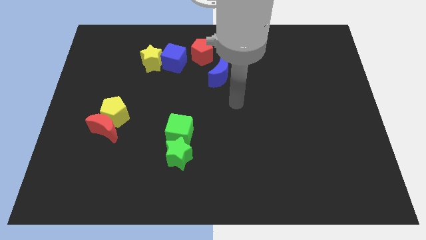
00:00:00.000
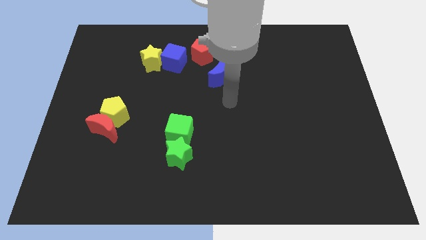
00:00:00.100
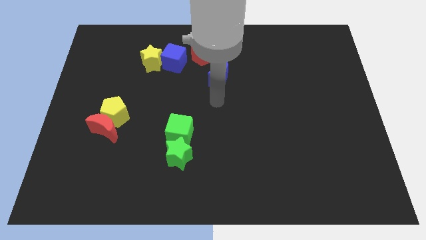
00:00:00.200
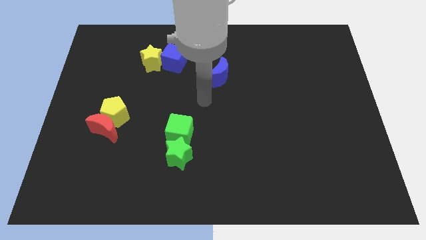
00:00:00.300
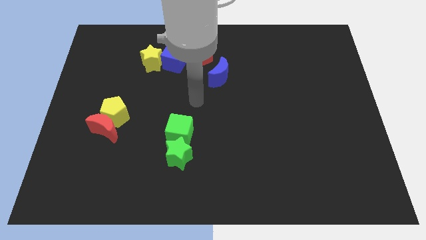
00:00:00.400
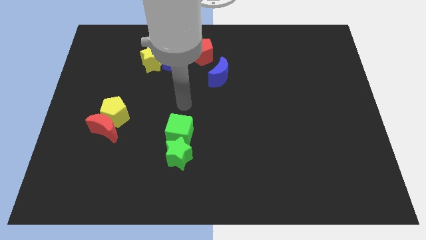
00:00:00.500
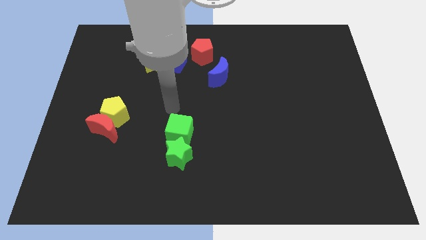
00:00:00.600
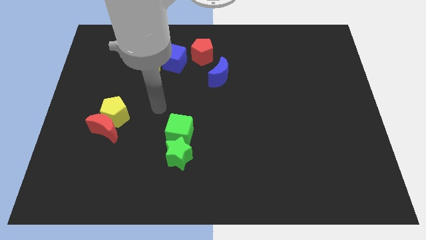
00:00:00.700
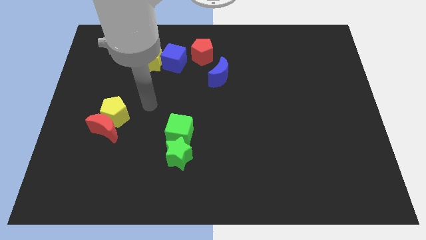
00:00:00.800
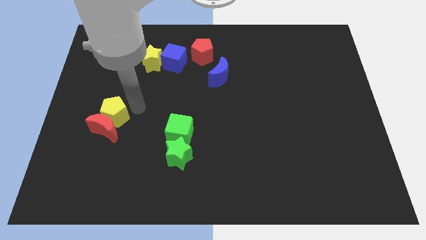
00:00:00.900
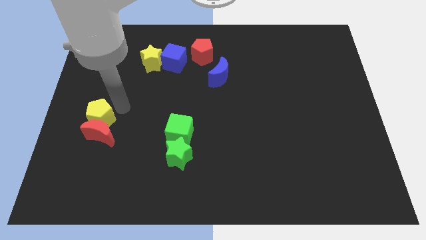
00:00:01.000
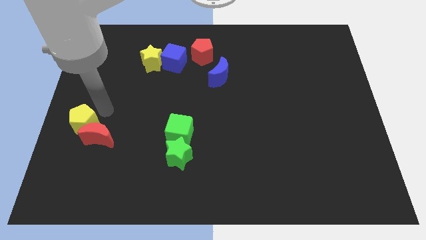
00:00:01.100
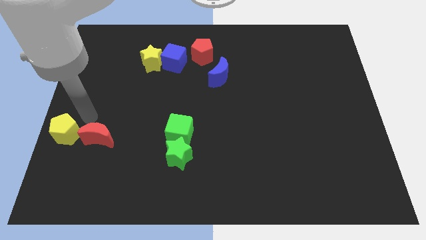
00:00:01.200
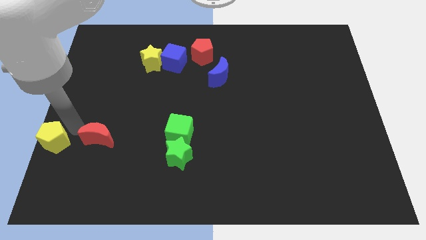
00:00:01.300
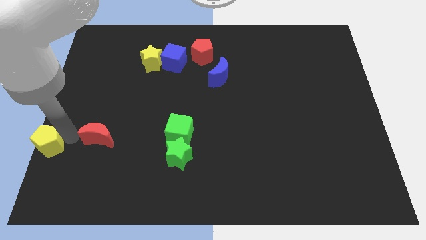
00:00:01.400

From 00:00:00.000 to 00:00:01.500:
separate the red moon from the yellow pentagon

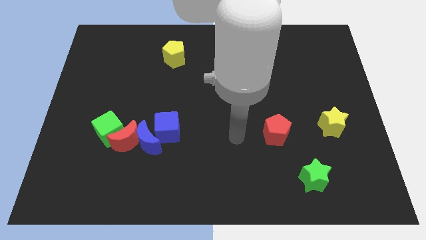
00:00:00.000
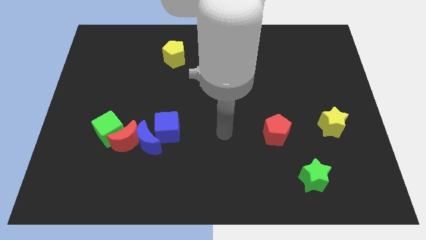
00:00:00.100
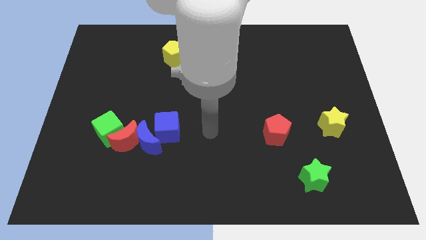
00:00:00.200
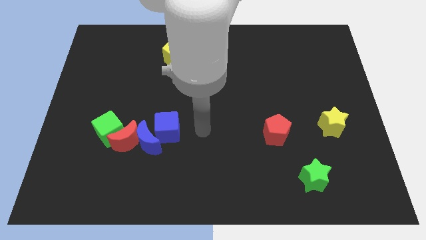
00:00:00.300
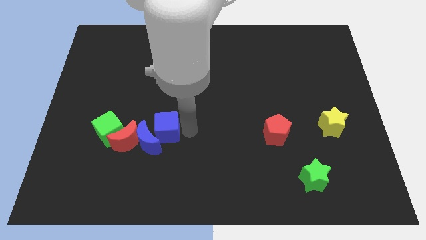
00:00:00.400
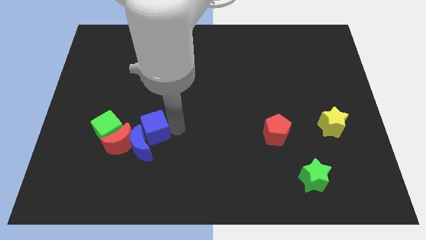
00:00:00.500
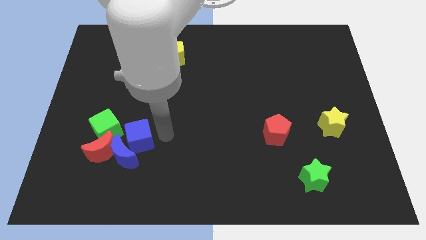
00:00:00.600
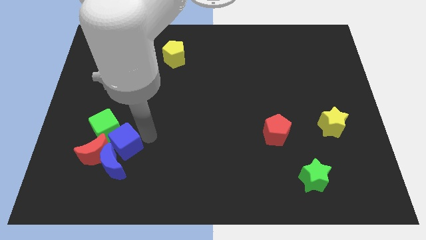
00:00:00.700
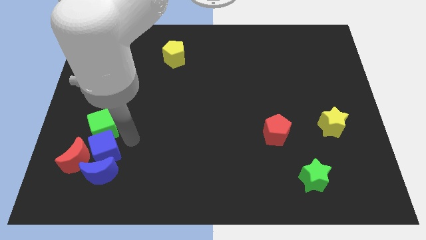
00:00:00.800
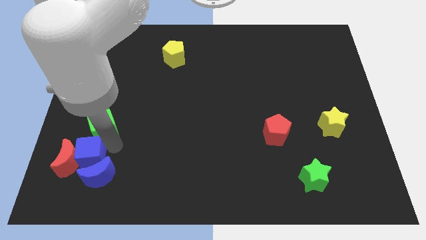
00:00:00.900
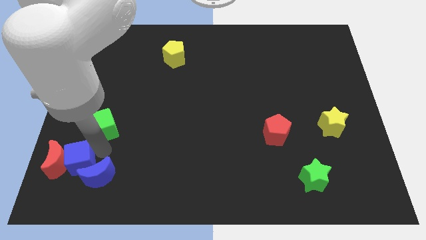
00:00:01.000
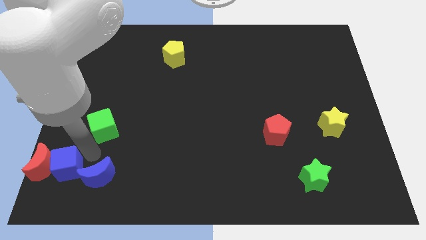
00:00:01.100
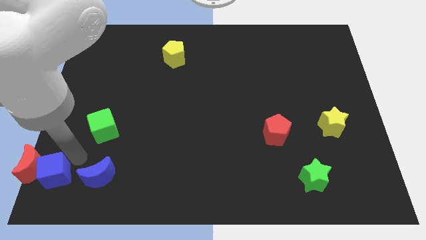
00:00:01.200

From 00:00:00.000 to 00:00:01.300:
move the red moon away from the blue moon, green cube, and blue cube

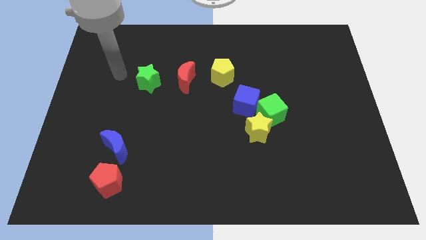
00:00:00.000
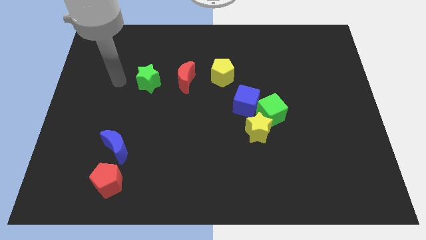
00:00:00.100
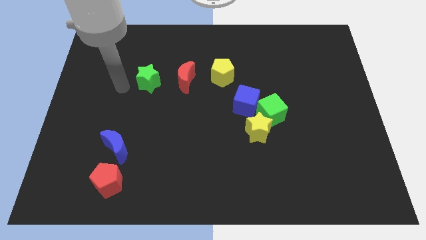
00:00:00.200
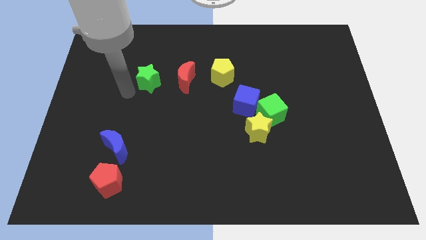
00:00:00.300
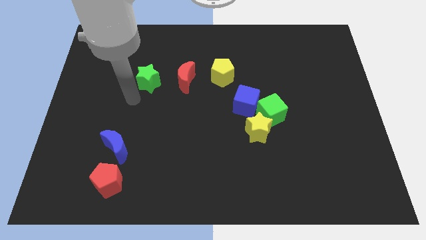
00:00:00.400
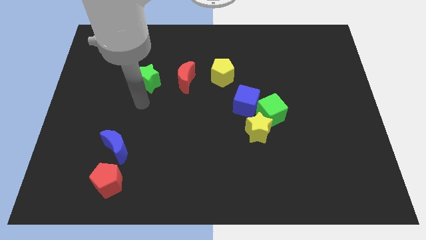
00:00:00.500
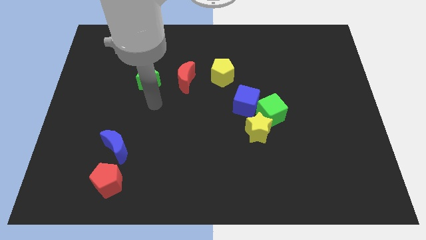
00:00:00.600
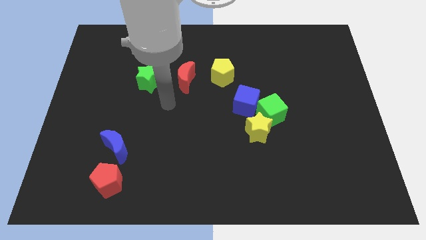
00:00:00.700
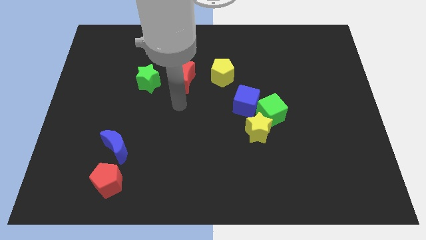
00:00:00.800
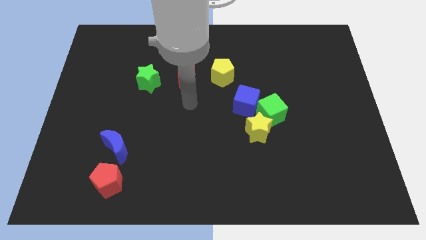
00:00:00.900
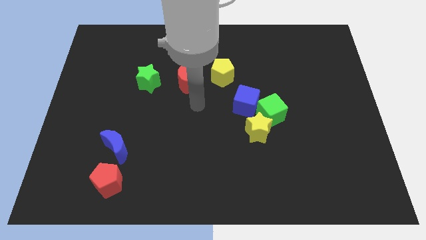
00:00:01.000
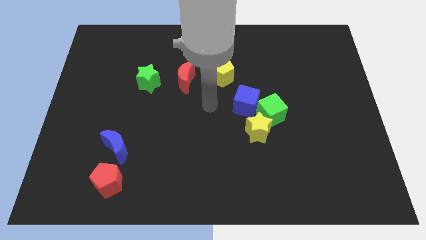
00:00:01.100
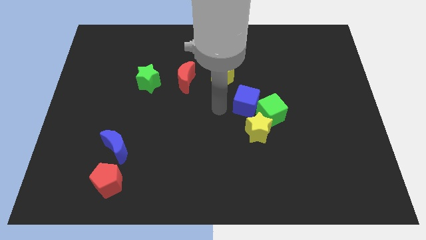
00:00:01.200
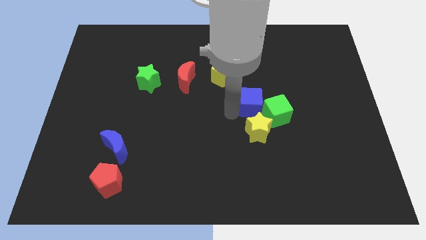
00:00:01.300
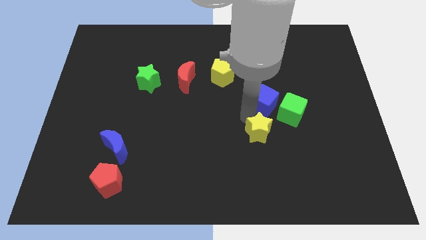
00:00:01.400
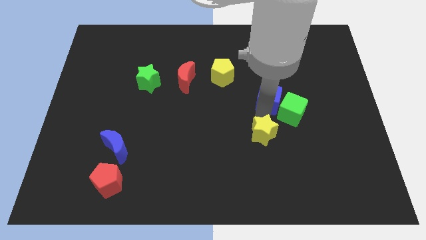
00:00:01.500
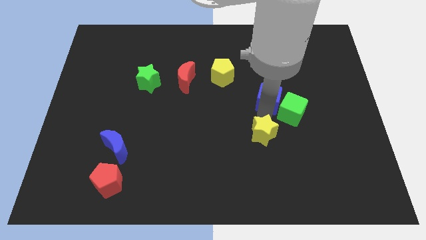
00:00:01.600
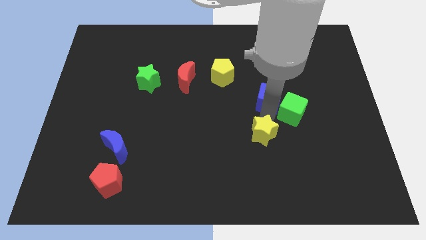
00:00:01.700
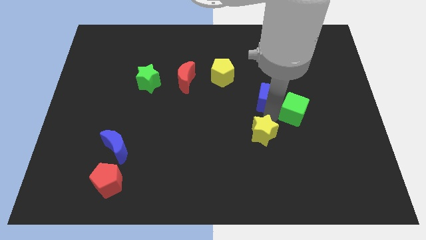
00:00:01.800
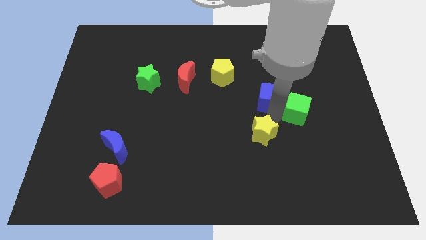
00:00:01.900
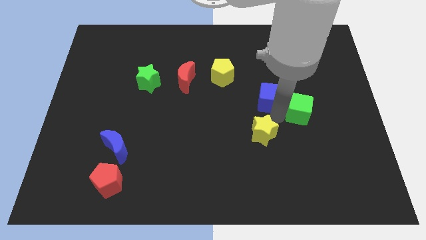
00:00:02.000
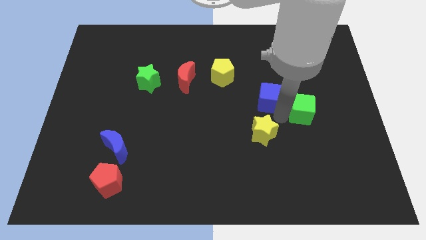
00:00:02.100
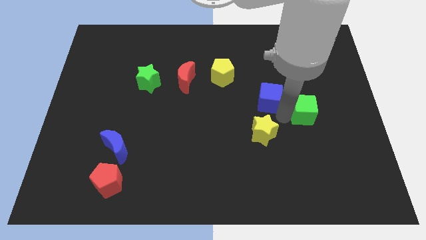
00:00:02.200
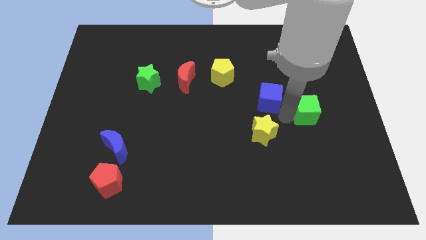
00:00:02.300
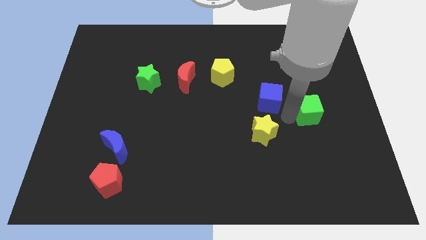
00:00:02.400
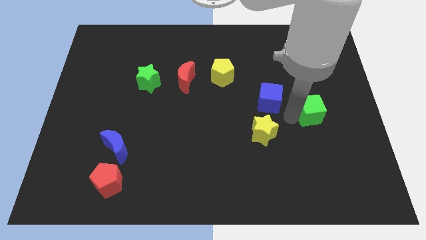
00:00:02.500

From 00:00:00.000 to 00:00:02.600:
pull the green cube apart from the yellow star and blue cube

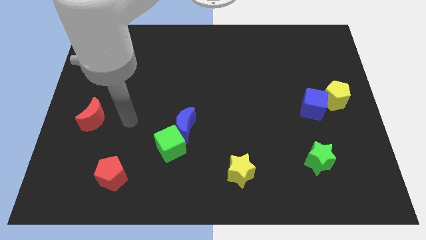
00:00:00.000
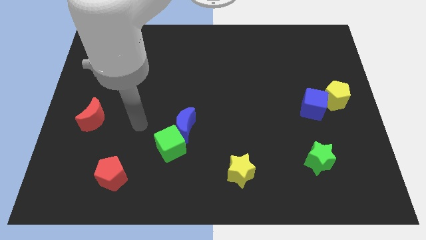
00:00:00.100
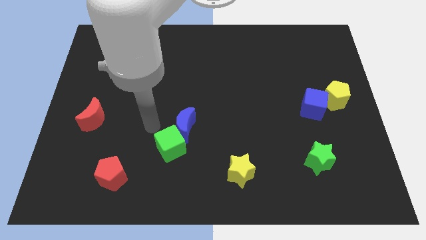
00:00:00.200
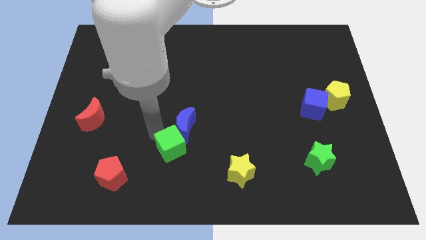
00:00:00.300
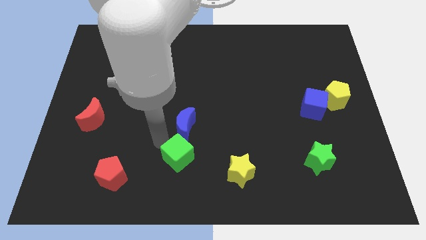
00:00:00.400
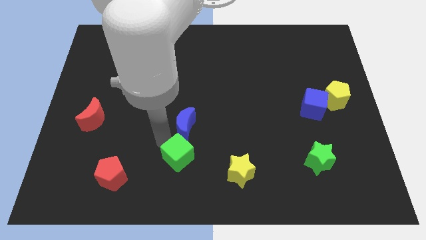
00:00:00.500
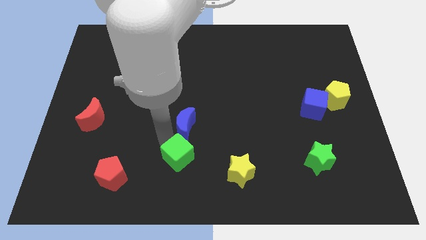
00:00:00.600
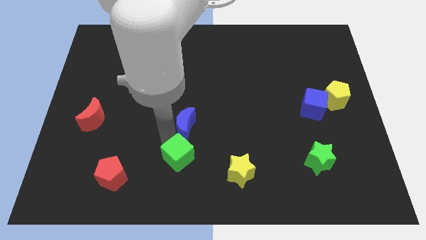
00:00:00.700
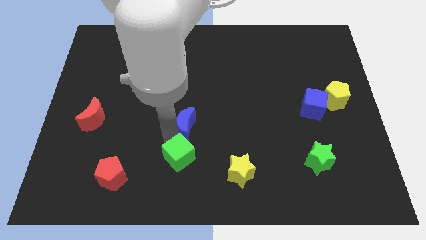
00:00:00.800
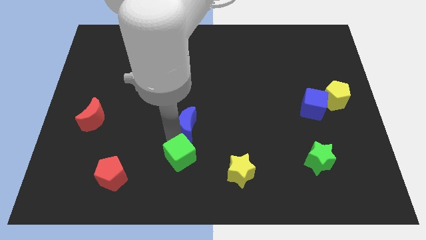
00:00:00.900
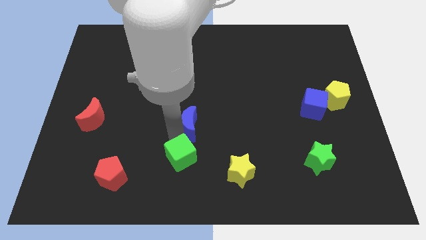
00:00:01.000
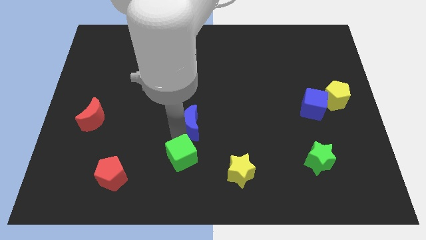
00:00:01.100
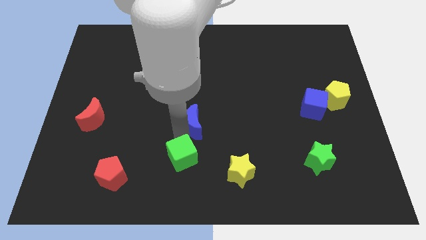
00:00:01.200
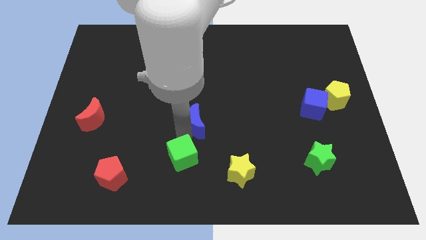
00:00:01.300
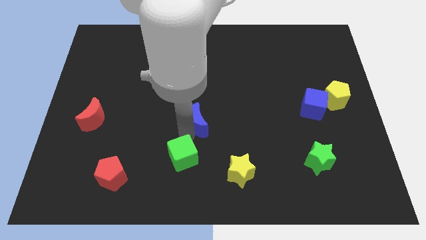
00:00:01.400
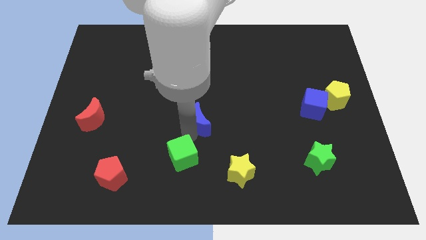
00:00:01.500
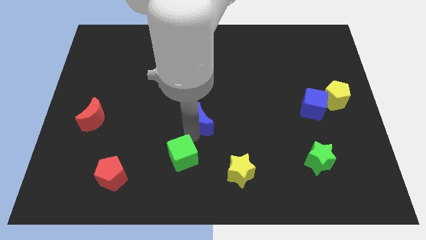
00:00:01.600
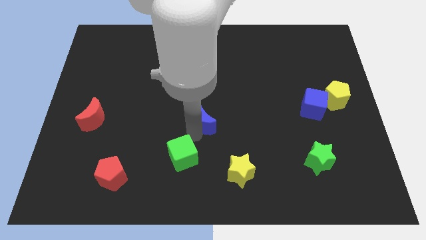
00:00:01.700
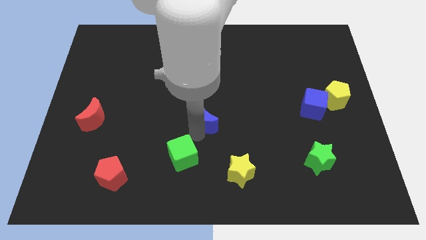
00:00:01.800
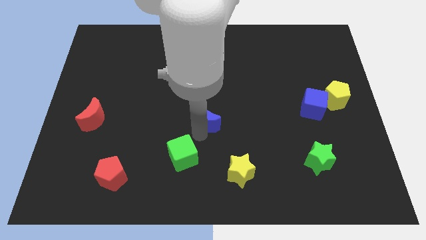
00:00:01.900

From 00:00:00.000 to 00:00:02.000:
separate the blue moon from the green cube

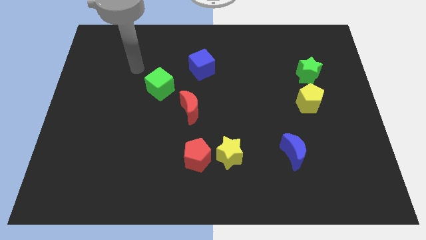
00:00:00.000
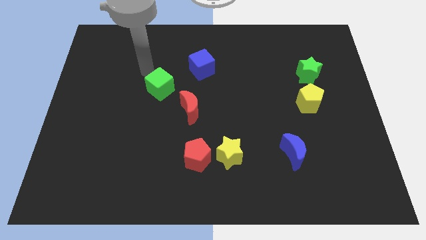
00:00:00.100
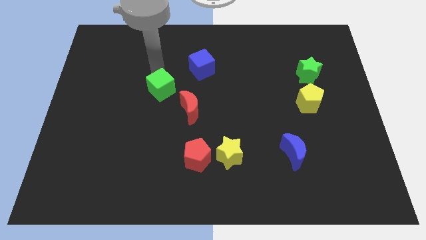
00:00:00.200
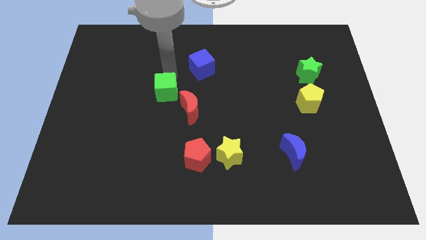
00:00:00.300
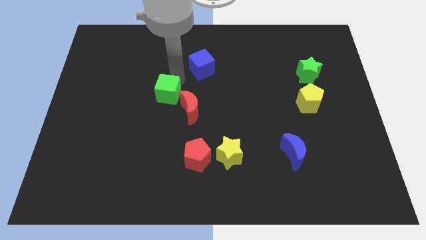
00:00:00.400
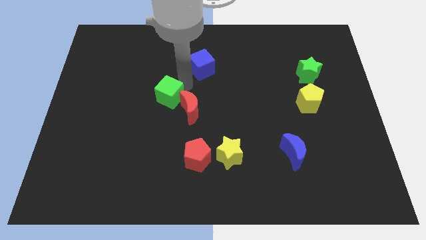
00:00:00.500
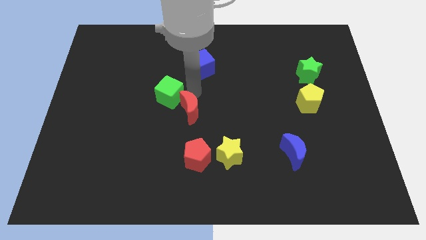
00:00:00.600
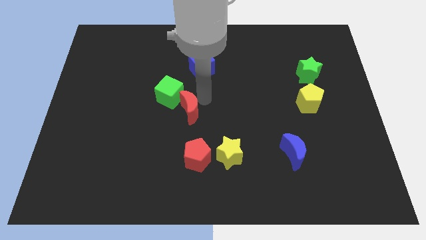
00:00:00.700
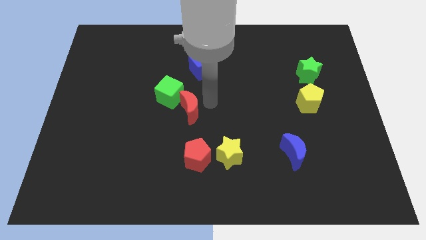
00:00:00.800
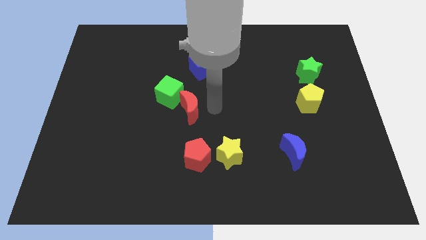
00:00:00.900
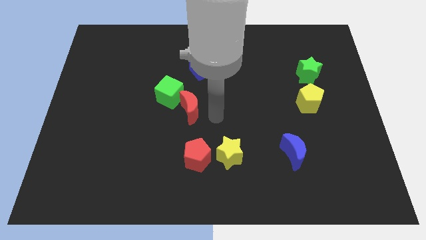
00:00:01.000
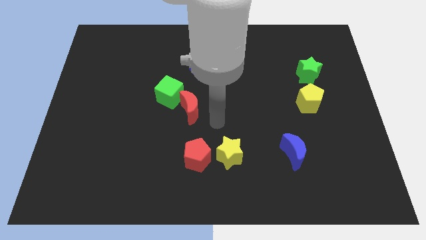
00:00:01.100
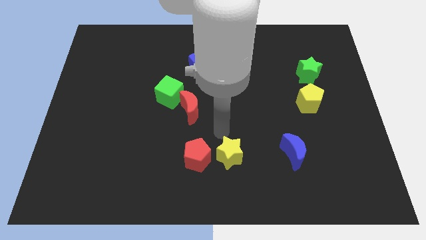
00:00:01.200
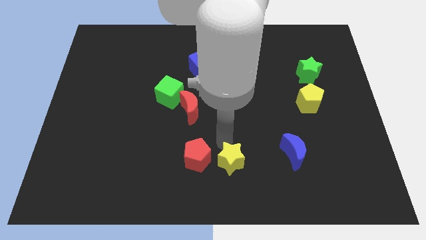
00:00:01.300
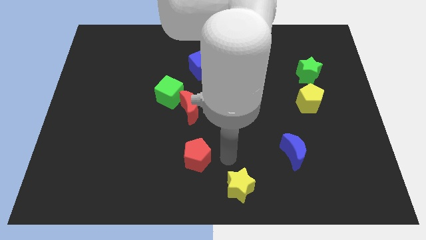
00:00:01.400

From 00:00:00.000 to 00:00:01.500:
move the red pentagon away from the yellow star

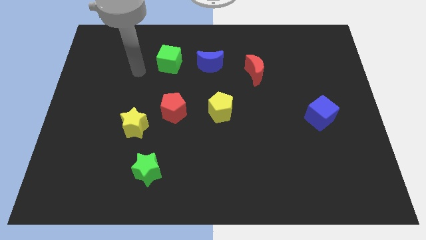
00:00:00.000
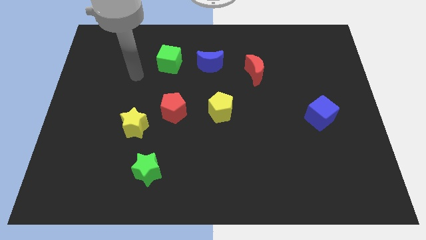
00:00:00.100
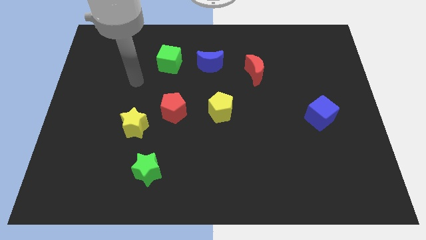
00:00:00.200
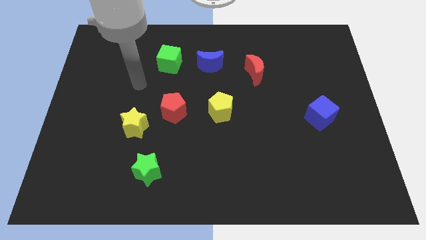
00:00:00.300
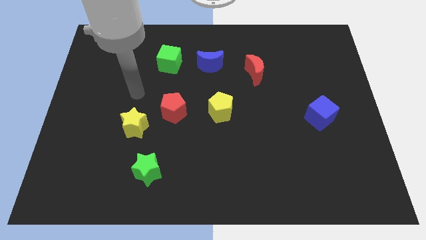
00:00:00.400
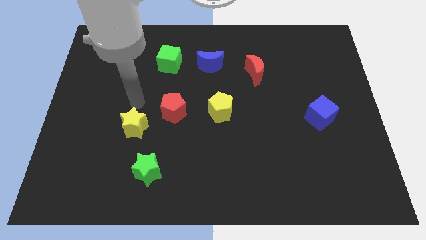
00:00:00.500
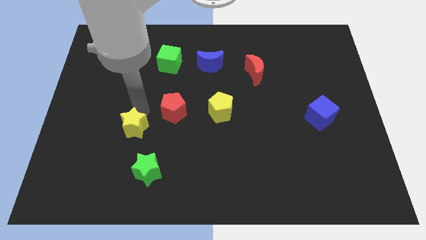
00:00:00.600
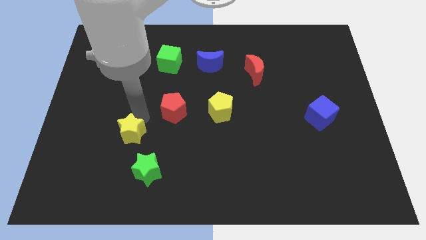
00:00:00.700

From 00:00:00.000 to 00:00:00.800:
pull the red pentagon apart from the yellow star
